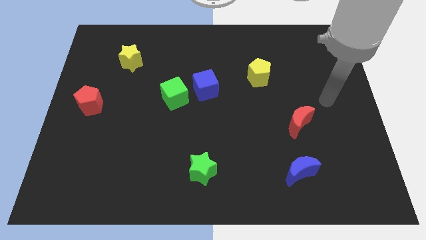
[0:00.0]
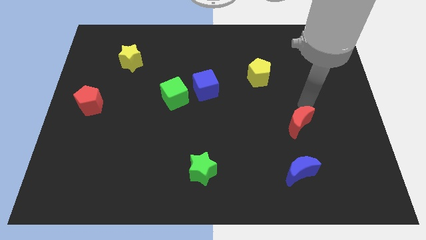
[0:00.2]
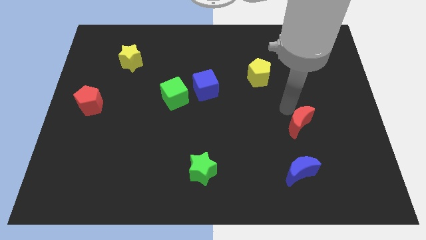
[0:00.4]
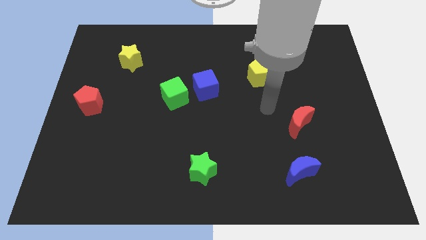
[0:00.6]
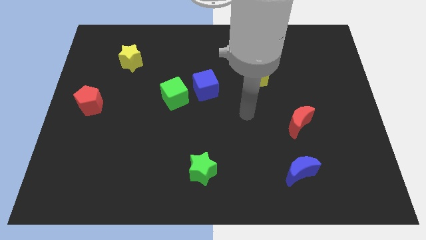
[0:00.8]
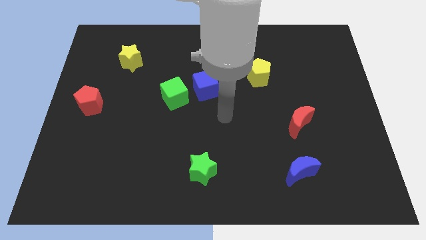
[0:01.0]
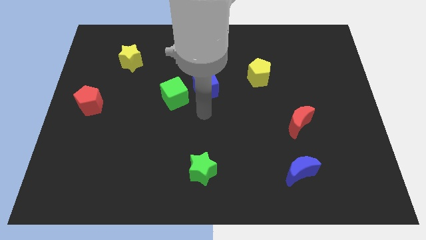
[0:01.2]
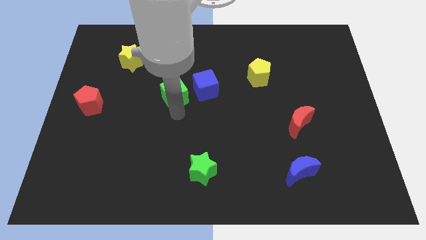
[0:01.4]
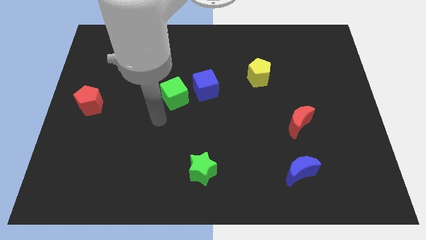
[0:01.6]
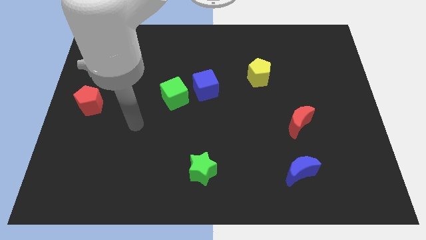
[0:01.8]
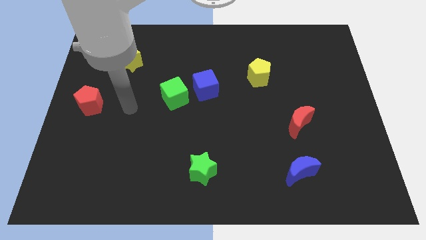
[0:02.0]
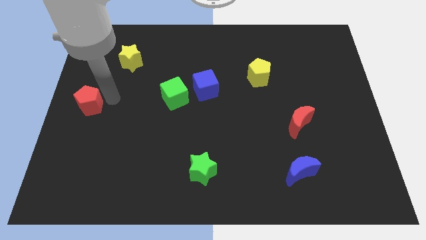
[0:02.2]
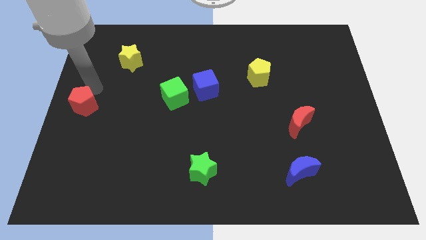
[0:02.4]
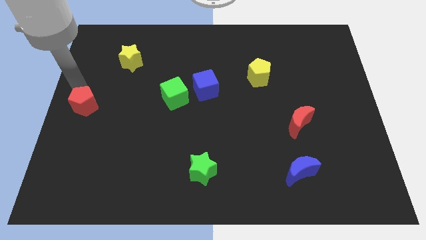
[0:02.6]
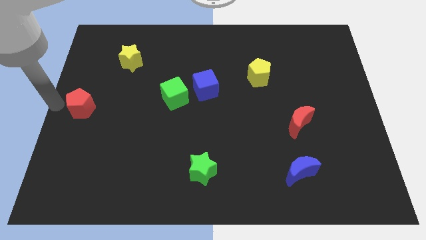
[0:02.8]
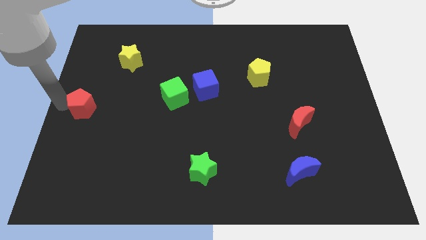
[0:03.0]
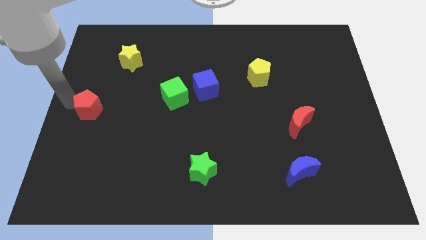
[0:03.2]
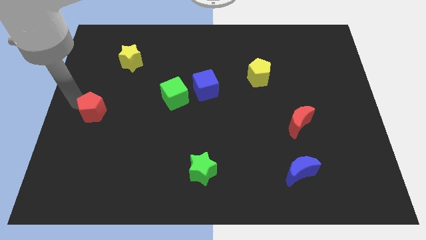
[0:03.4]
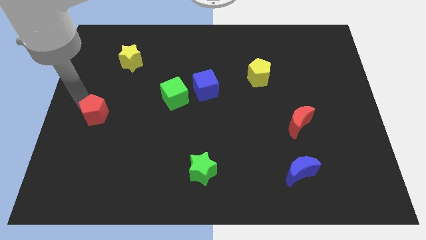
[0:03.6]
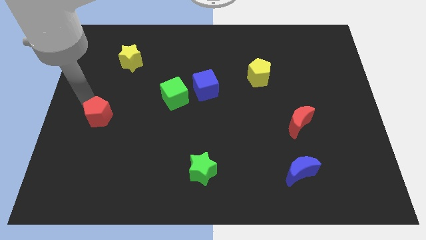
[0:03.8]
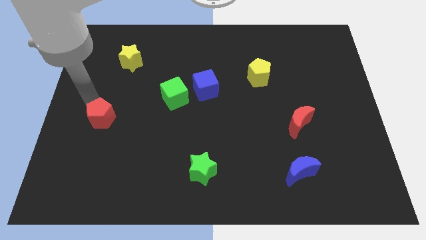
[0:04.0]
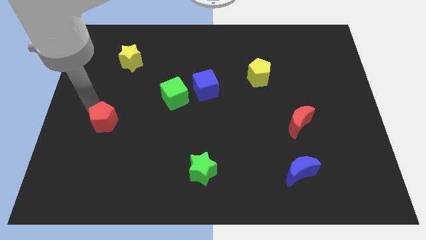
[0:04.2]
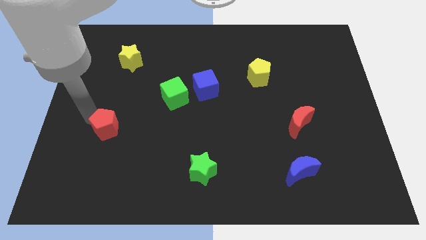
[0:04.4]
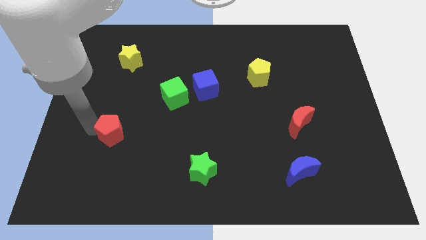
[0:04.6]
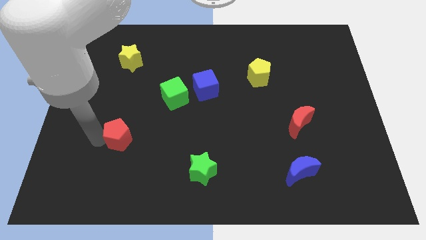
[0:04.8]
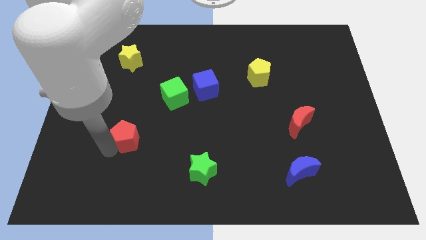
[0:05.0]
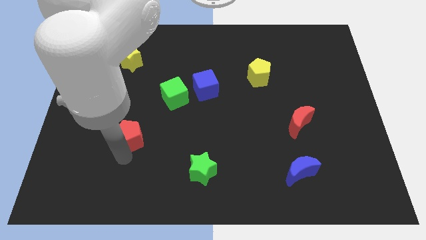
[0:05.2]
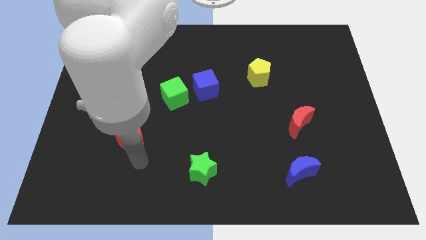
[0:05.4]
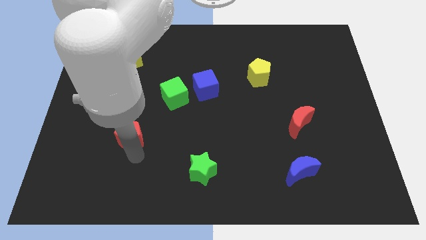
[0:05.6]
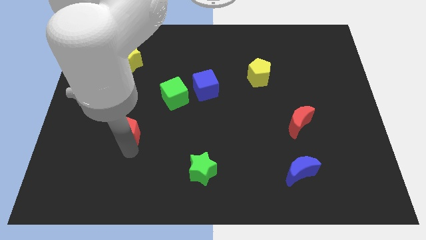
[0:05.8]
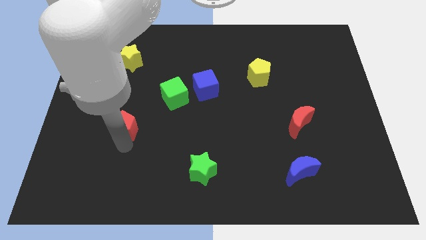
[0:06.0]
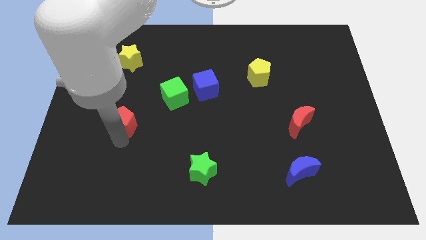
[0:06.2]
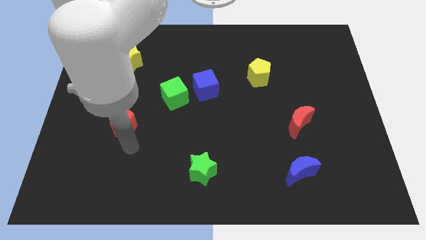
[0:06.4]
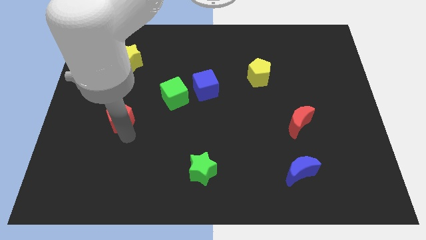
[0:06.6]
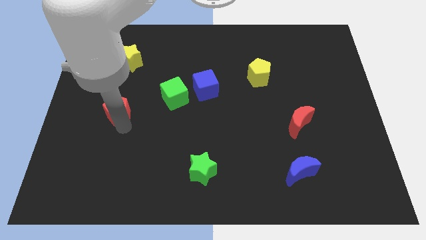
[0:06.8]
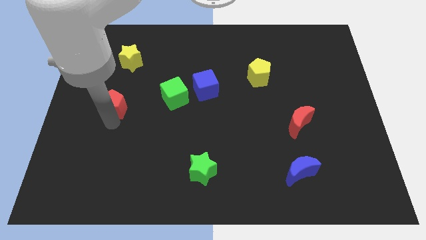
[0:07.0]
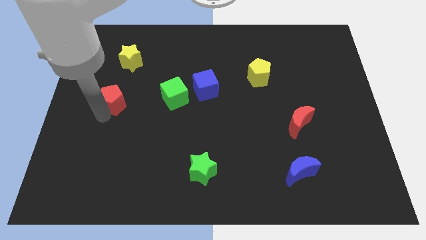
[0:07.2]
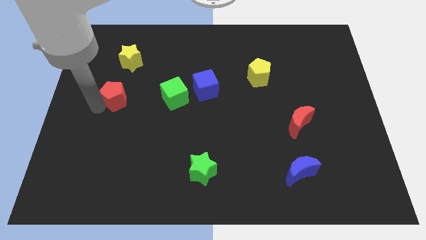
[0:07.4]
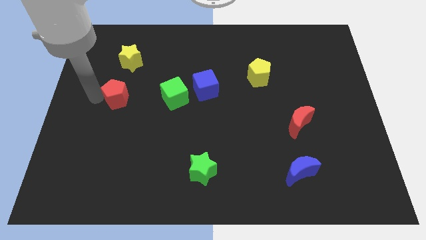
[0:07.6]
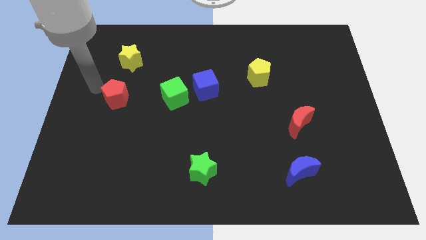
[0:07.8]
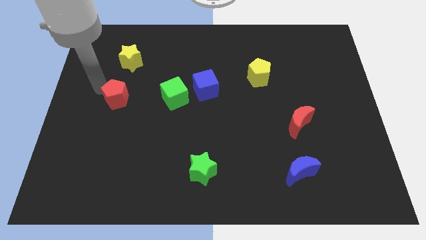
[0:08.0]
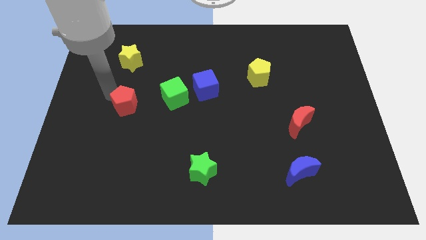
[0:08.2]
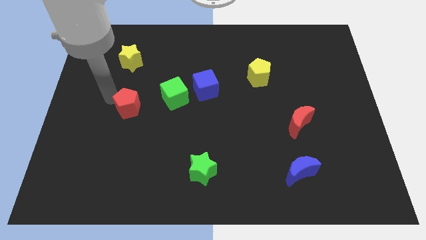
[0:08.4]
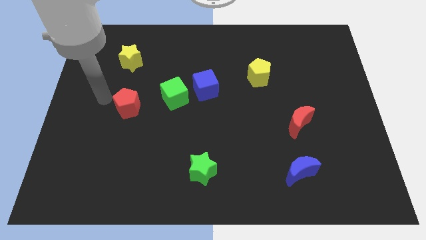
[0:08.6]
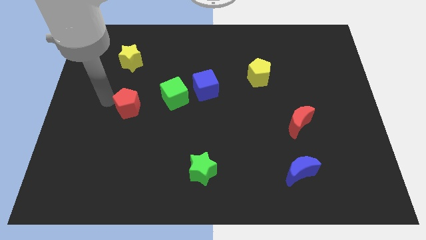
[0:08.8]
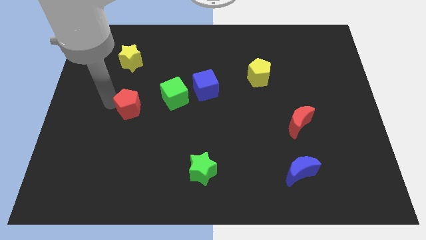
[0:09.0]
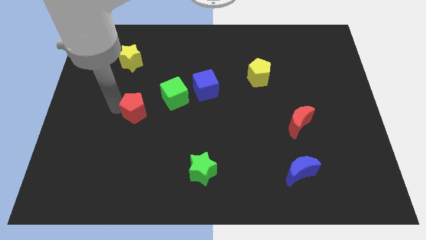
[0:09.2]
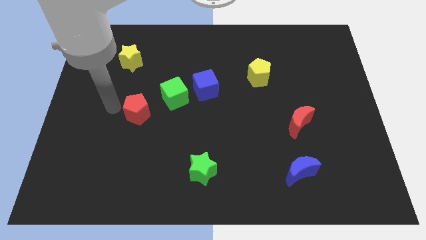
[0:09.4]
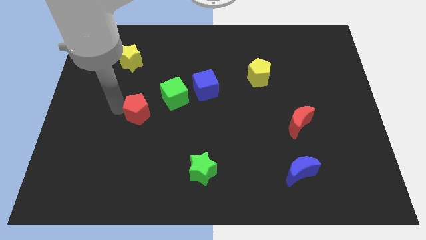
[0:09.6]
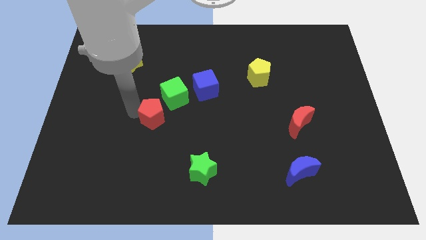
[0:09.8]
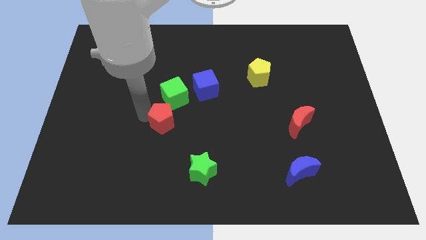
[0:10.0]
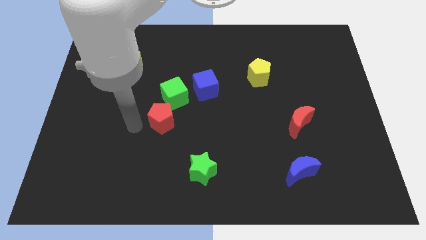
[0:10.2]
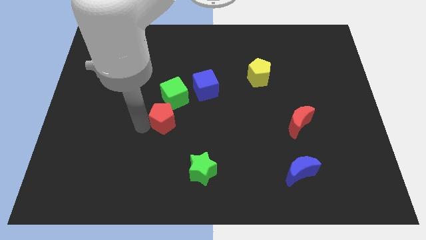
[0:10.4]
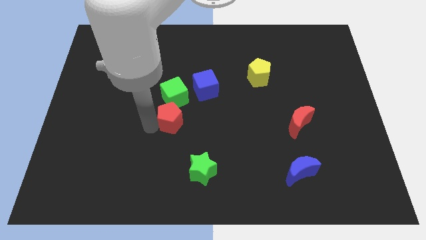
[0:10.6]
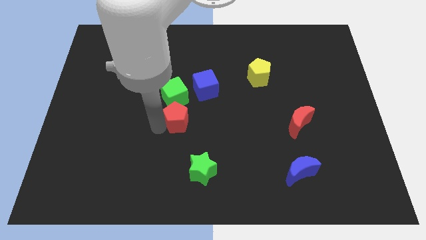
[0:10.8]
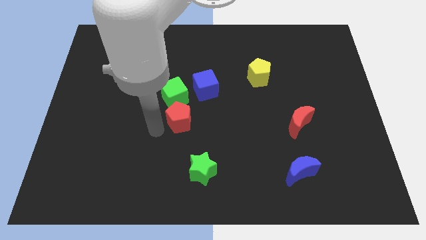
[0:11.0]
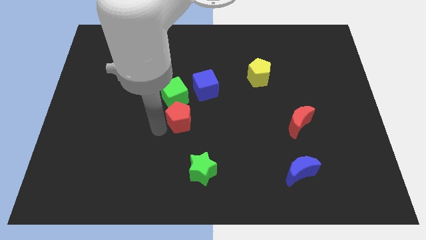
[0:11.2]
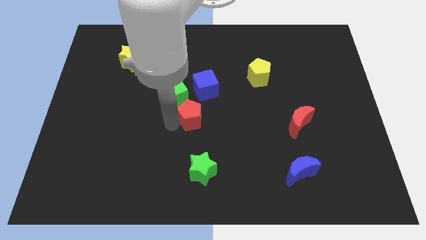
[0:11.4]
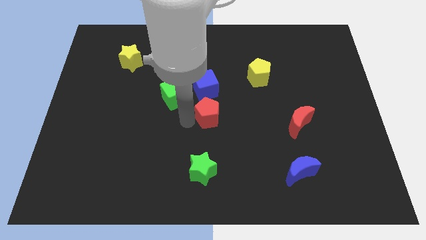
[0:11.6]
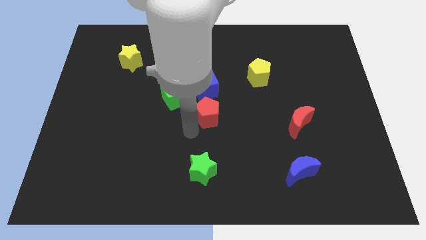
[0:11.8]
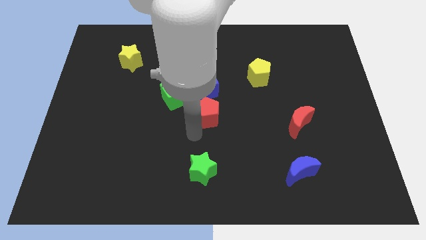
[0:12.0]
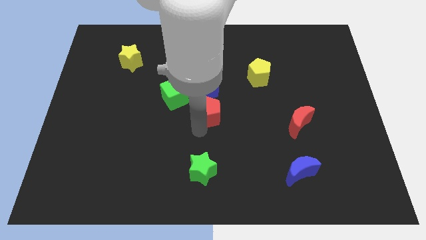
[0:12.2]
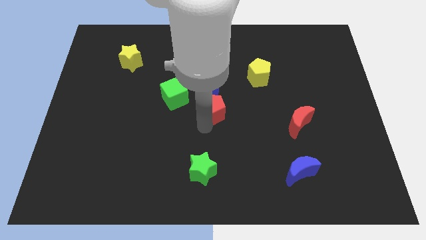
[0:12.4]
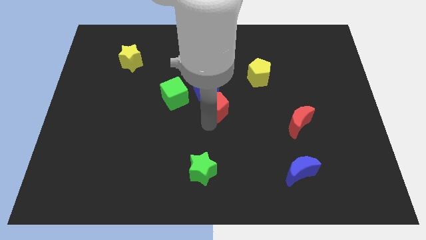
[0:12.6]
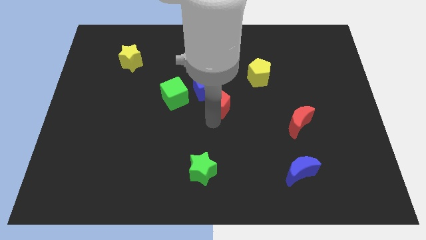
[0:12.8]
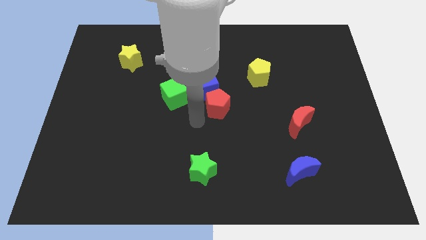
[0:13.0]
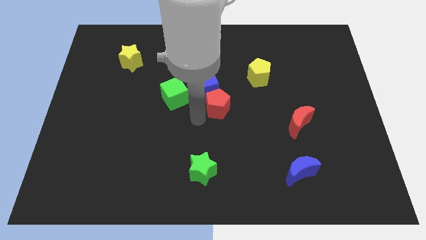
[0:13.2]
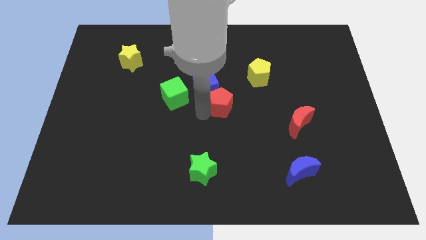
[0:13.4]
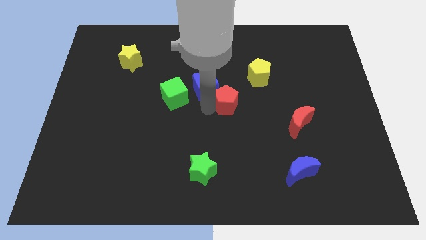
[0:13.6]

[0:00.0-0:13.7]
move the red pentagon to the right of the blue cube
